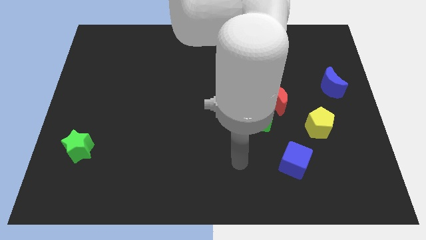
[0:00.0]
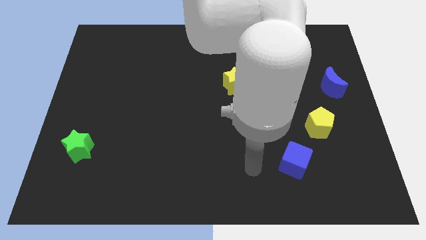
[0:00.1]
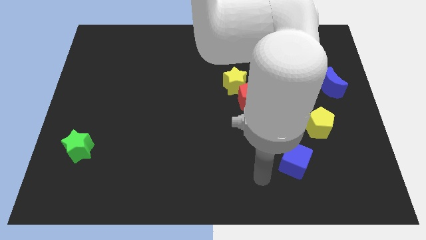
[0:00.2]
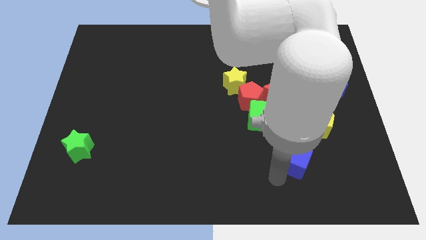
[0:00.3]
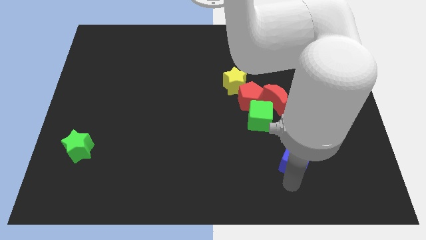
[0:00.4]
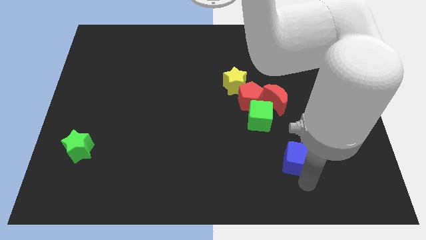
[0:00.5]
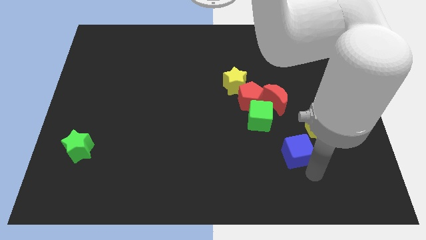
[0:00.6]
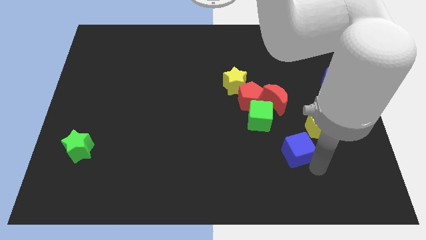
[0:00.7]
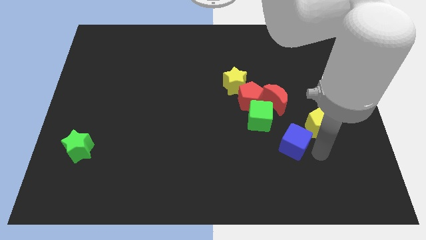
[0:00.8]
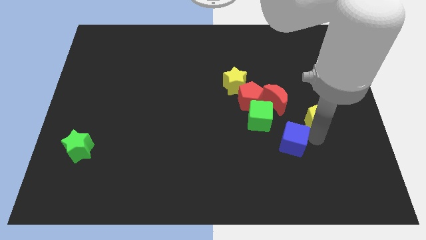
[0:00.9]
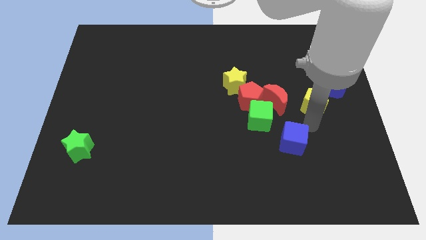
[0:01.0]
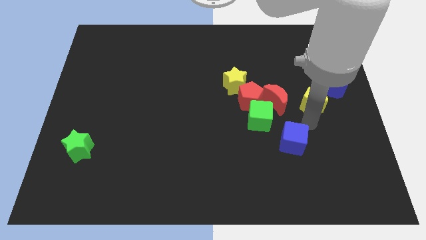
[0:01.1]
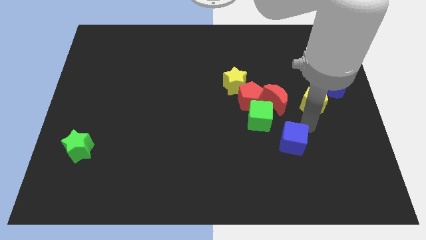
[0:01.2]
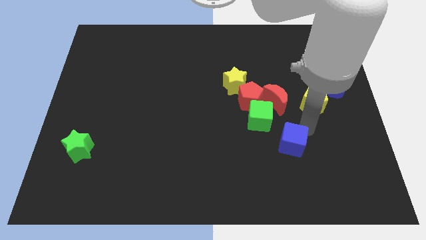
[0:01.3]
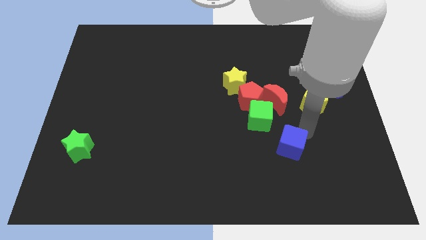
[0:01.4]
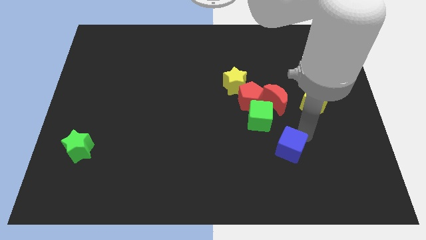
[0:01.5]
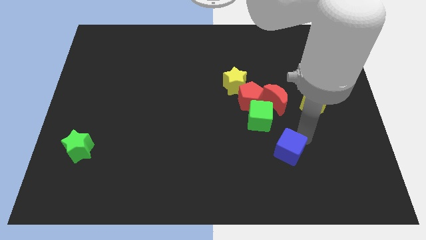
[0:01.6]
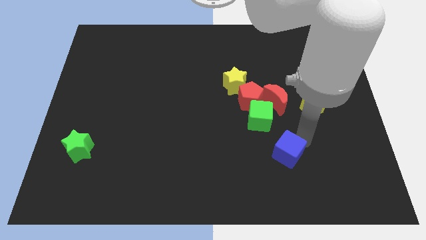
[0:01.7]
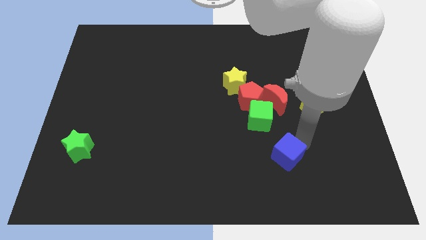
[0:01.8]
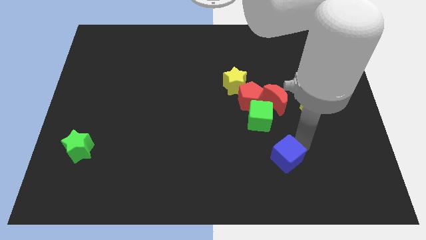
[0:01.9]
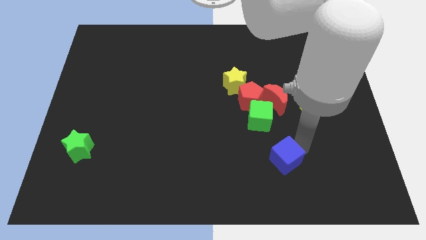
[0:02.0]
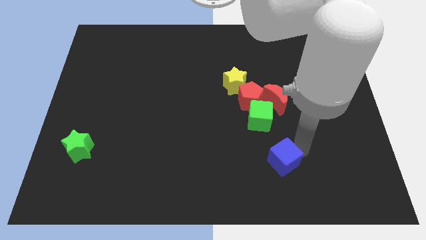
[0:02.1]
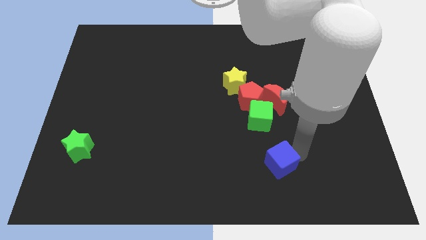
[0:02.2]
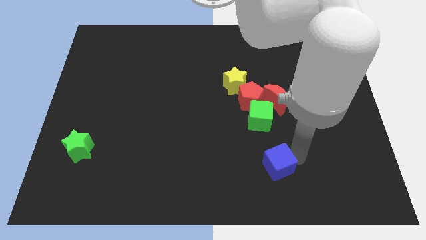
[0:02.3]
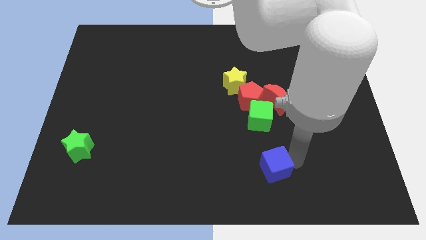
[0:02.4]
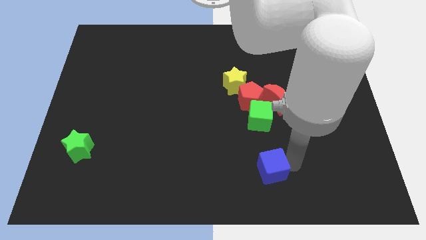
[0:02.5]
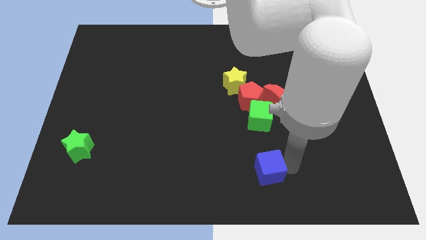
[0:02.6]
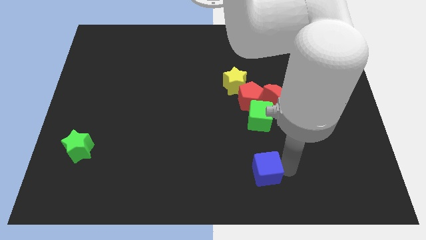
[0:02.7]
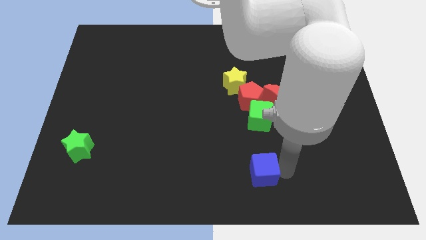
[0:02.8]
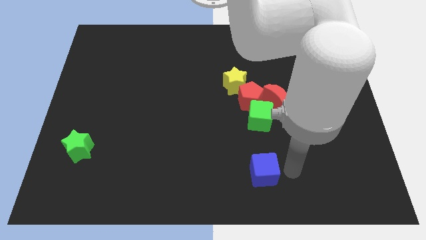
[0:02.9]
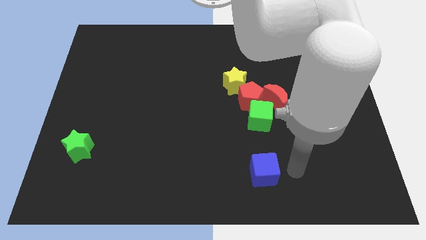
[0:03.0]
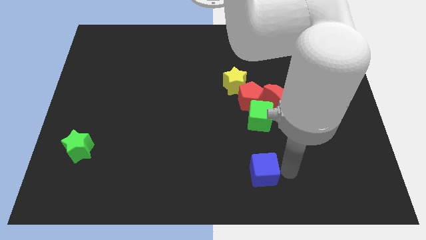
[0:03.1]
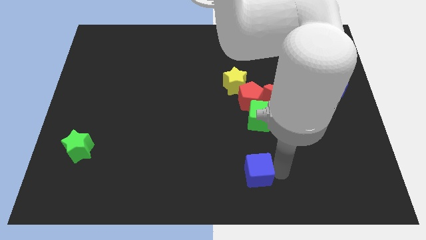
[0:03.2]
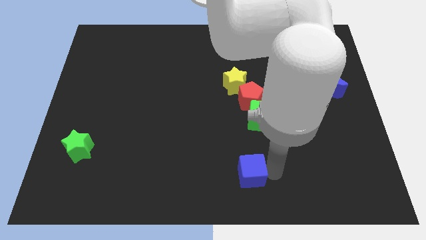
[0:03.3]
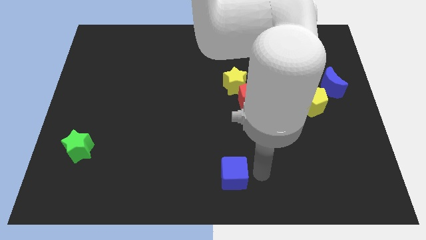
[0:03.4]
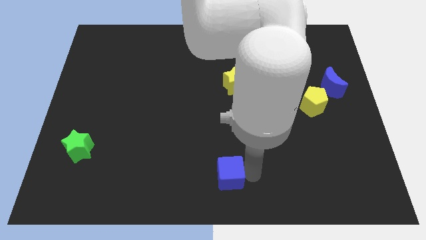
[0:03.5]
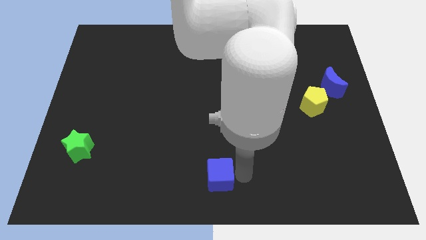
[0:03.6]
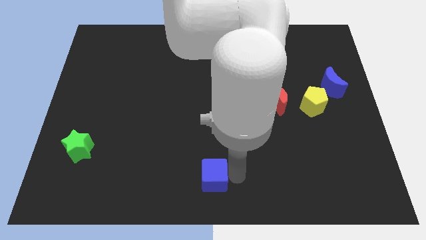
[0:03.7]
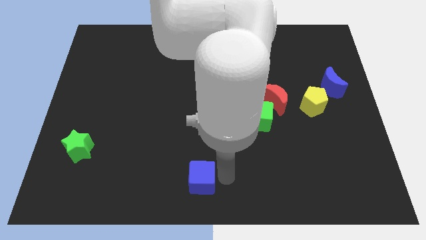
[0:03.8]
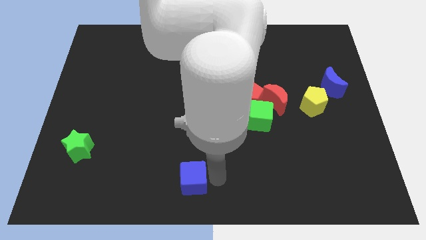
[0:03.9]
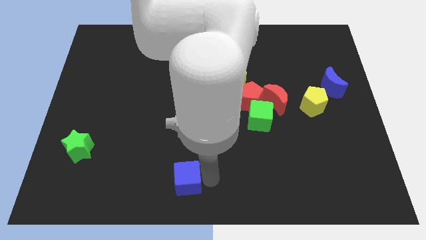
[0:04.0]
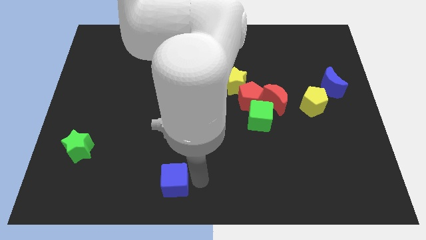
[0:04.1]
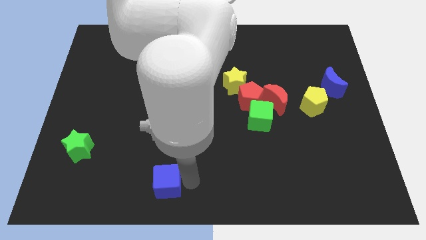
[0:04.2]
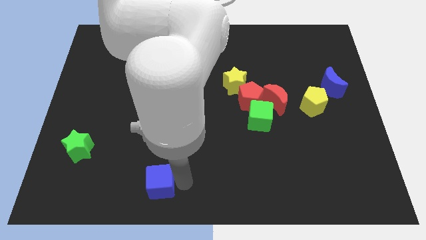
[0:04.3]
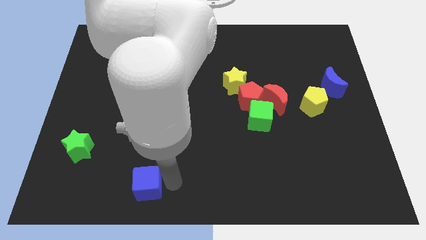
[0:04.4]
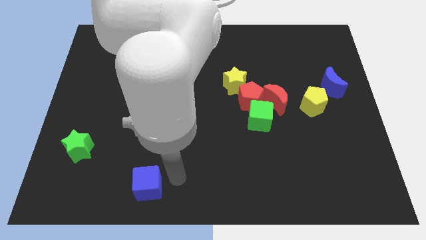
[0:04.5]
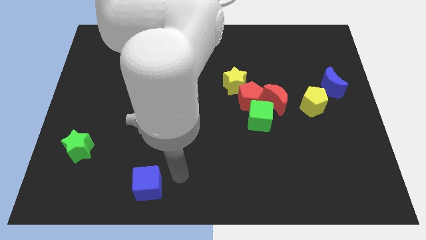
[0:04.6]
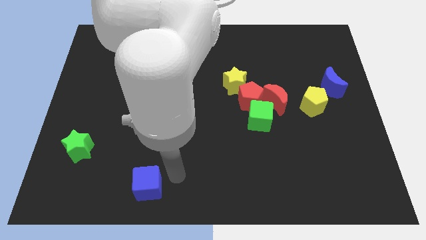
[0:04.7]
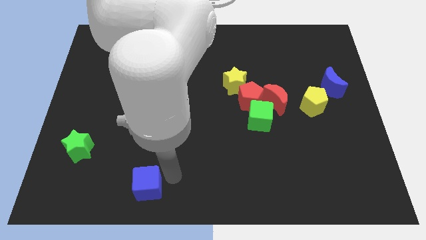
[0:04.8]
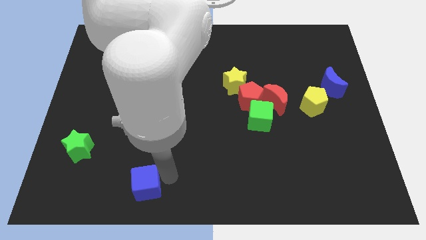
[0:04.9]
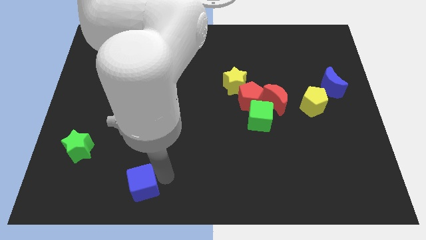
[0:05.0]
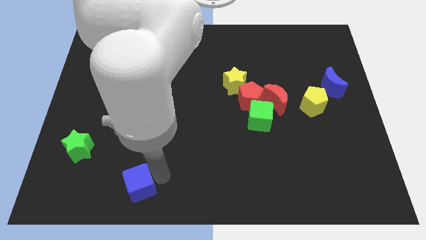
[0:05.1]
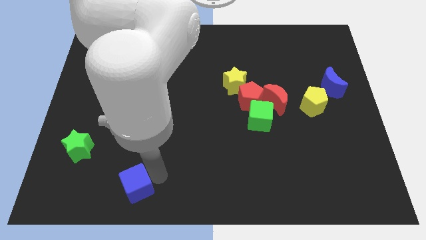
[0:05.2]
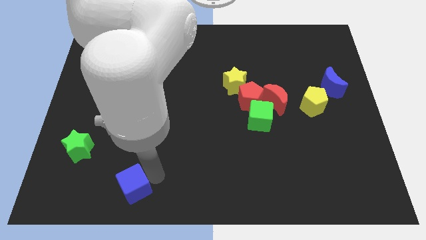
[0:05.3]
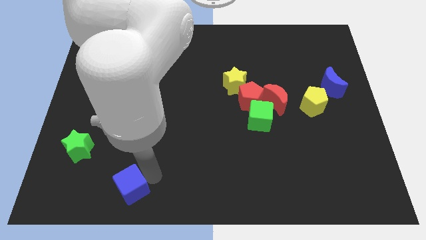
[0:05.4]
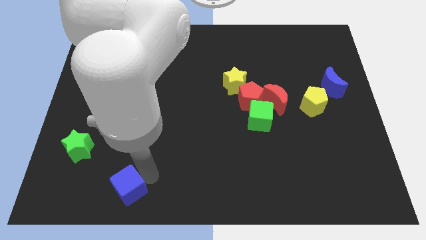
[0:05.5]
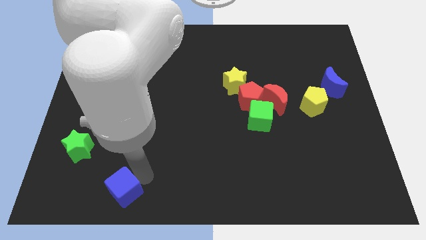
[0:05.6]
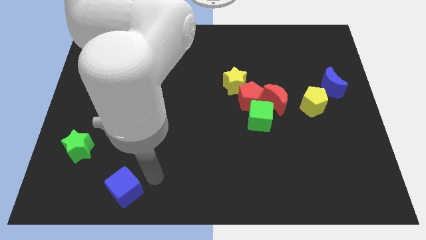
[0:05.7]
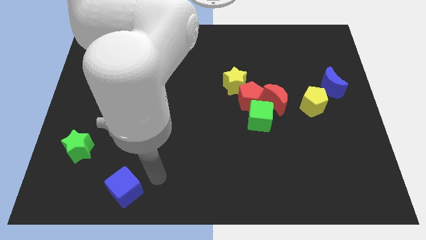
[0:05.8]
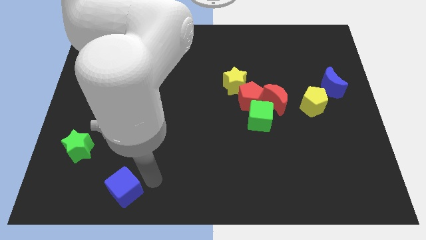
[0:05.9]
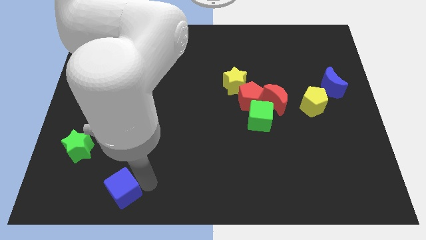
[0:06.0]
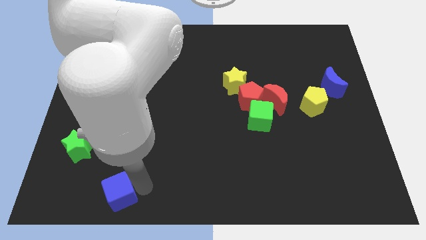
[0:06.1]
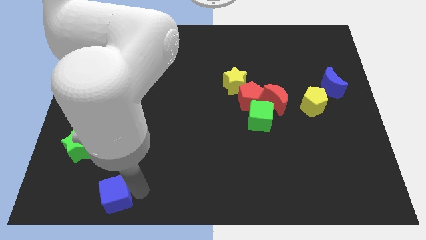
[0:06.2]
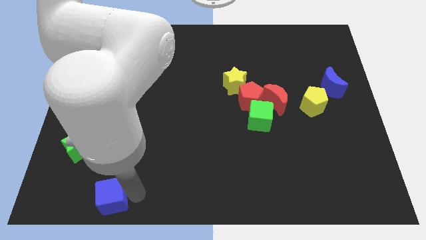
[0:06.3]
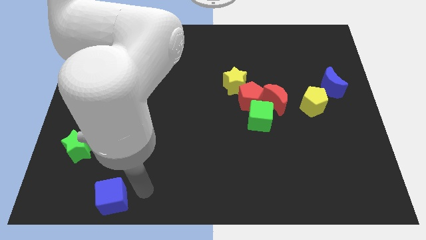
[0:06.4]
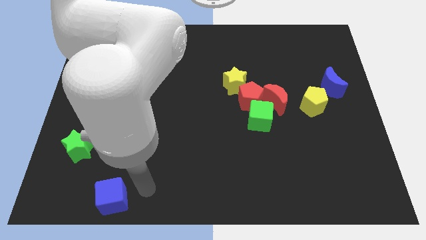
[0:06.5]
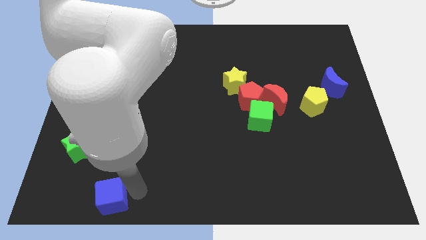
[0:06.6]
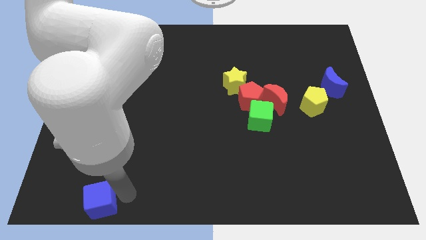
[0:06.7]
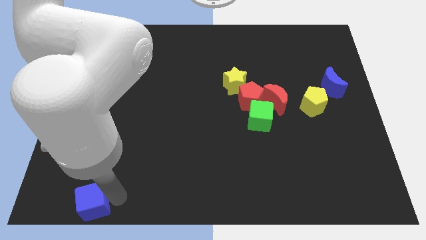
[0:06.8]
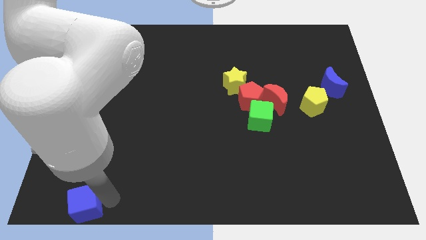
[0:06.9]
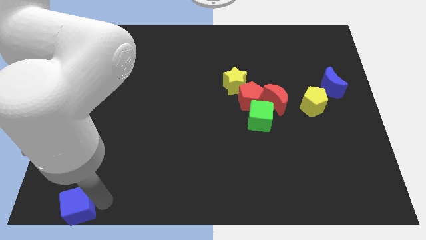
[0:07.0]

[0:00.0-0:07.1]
slide the blue cube to the bottom left of the board
